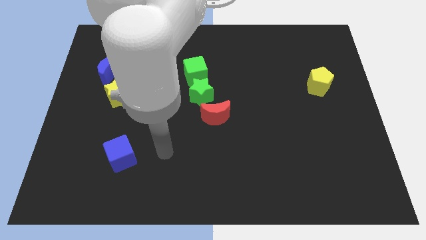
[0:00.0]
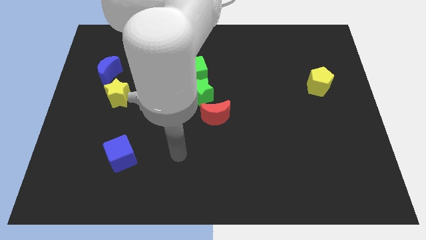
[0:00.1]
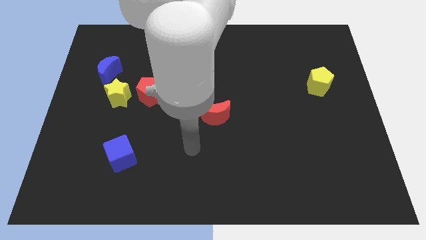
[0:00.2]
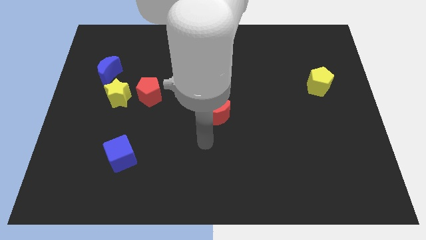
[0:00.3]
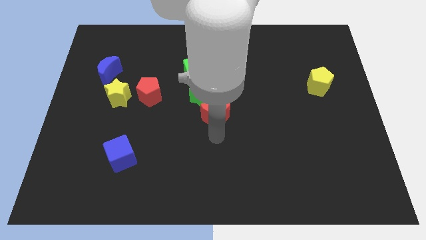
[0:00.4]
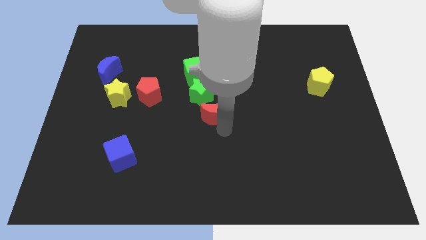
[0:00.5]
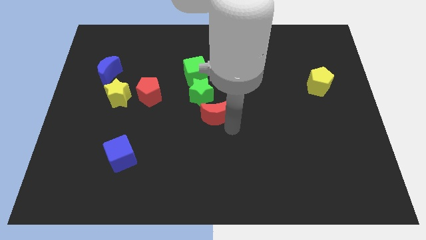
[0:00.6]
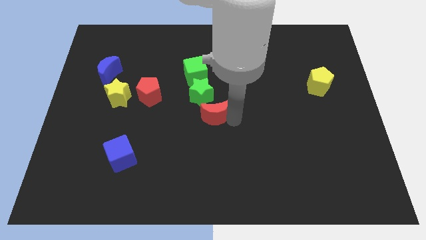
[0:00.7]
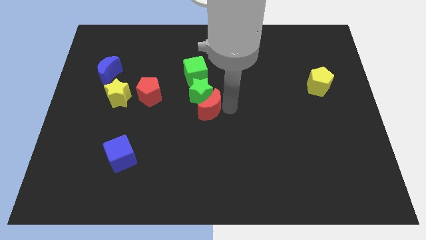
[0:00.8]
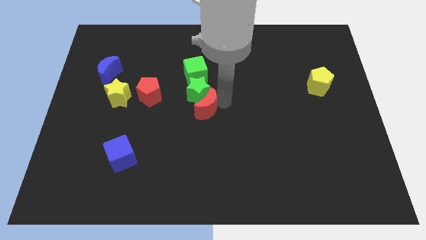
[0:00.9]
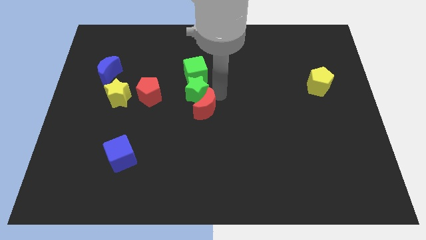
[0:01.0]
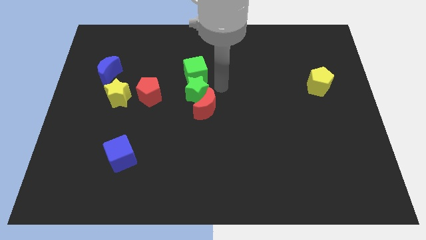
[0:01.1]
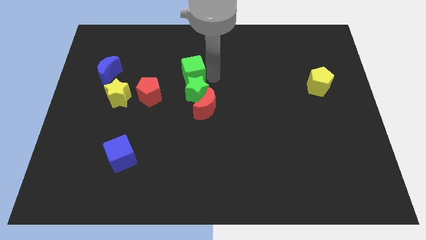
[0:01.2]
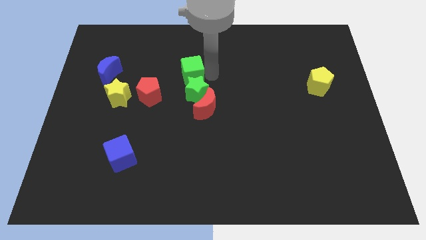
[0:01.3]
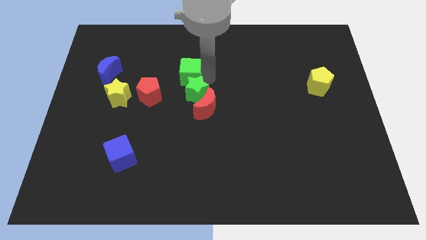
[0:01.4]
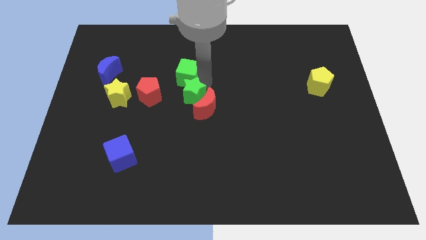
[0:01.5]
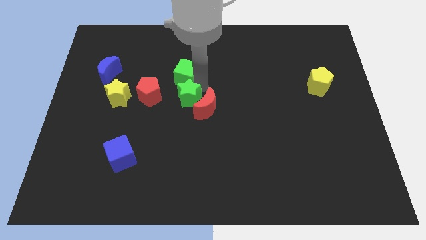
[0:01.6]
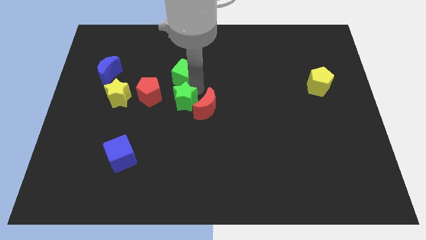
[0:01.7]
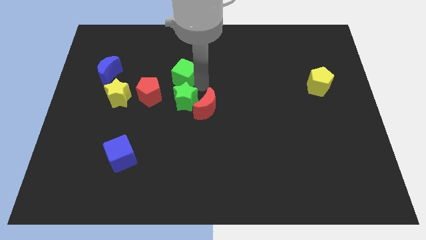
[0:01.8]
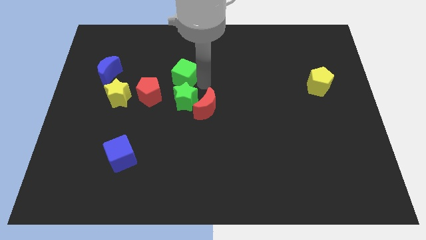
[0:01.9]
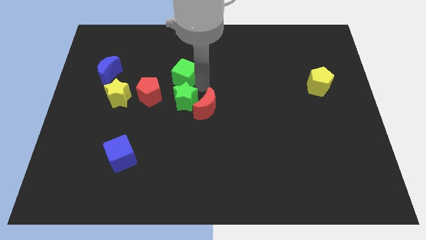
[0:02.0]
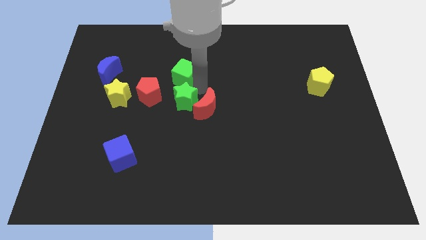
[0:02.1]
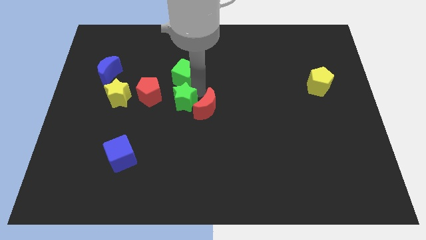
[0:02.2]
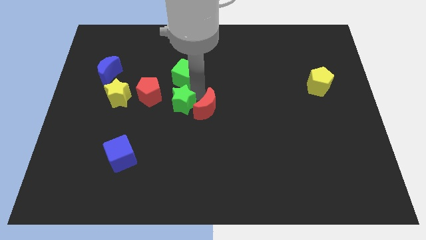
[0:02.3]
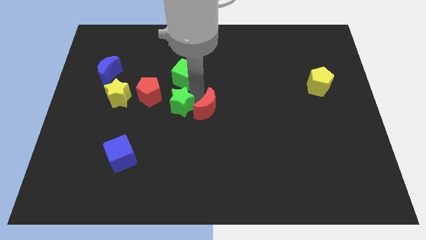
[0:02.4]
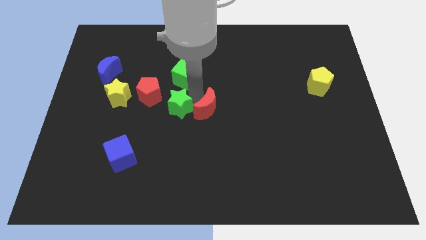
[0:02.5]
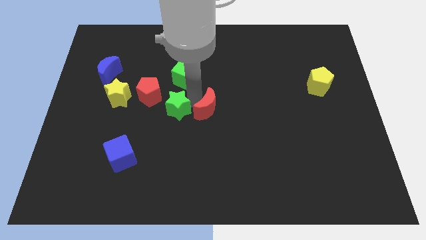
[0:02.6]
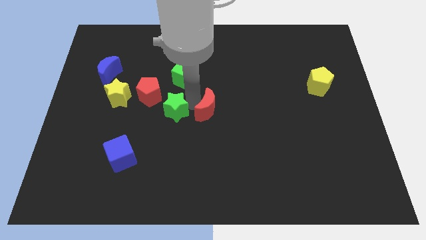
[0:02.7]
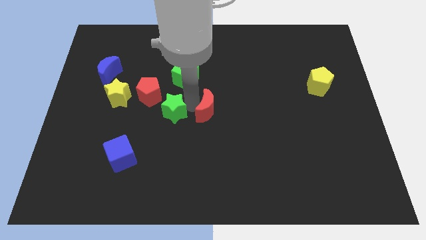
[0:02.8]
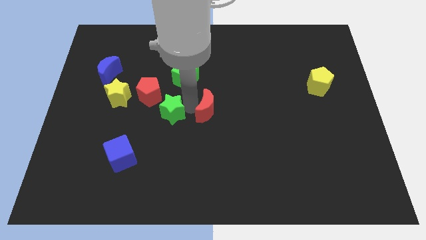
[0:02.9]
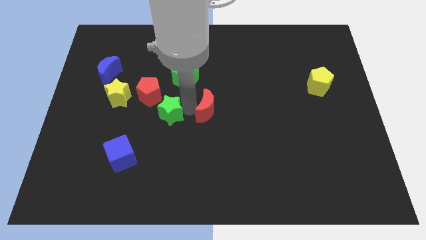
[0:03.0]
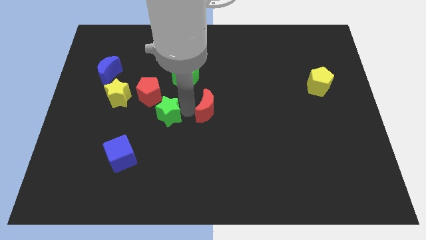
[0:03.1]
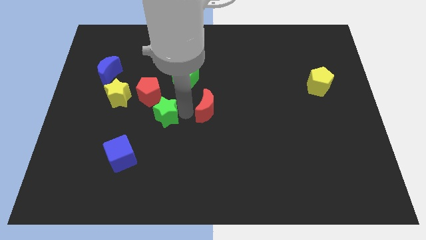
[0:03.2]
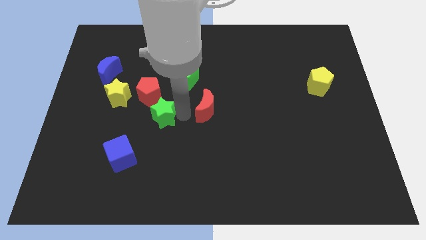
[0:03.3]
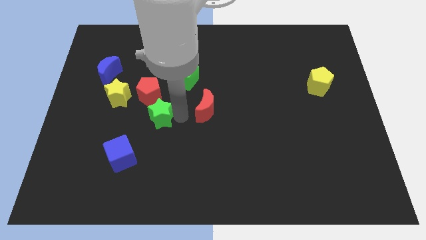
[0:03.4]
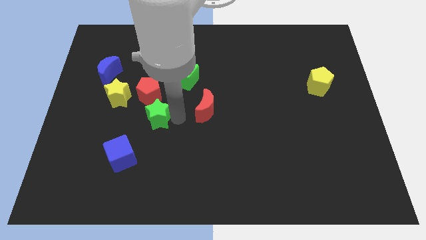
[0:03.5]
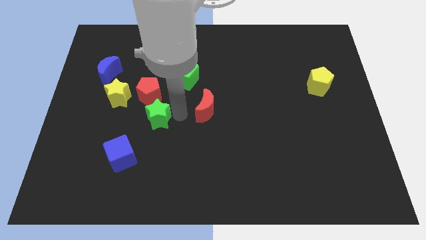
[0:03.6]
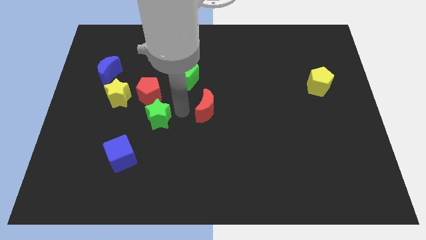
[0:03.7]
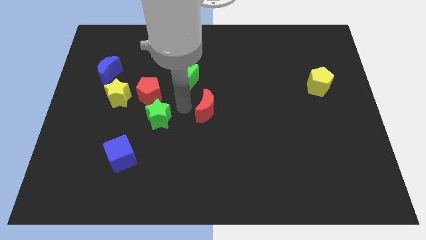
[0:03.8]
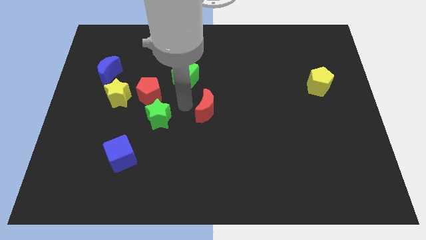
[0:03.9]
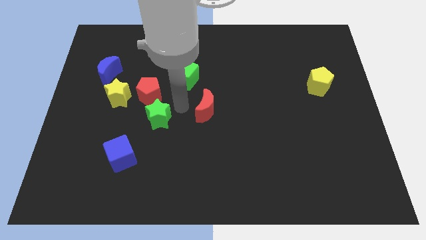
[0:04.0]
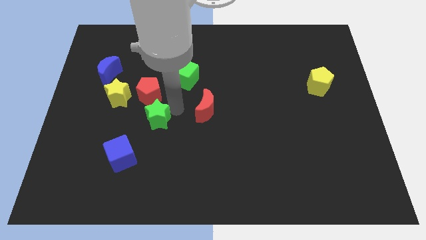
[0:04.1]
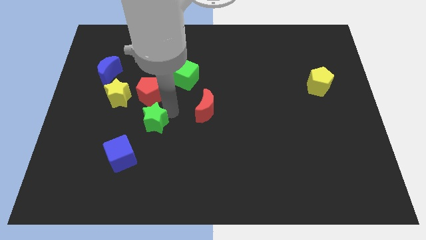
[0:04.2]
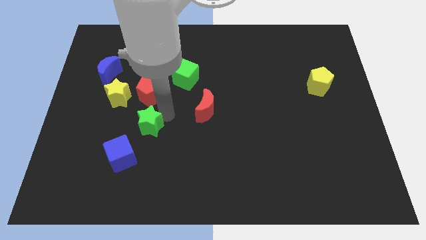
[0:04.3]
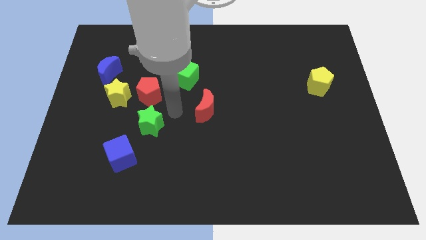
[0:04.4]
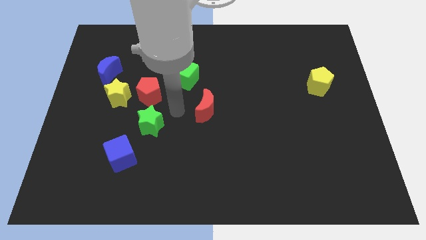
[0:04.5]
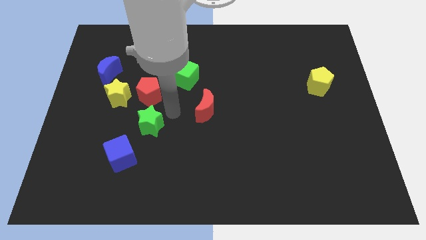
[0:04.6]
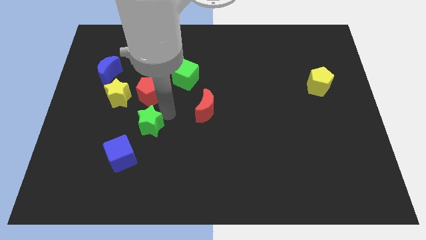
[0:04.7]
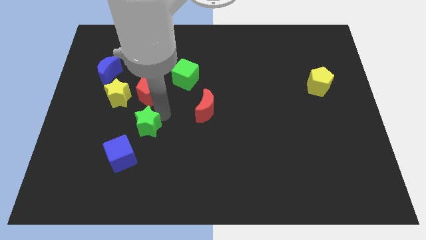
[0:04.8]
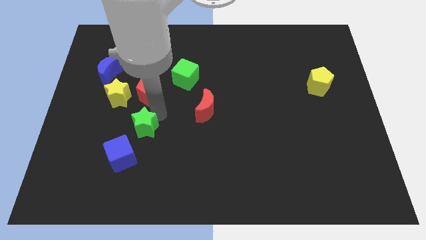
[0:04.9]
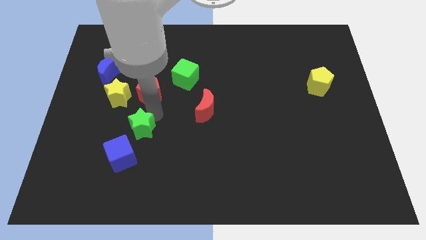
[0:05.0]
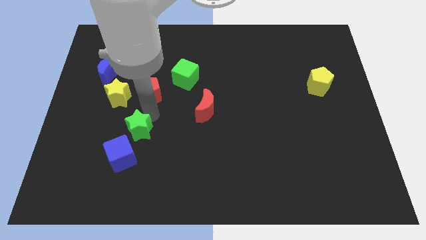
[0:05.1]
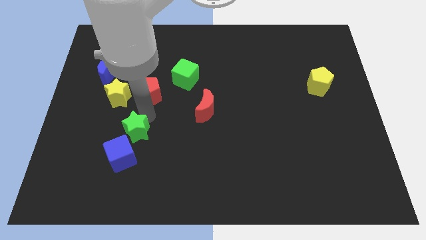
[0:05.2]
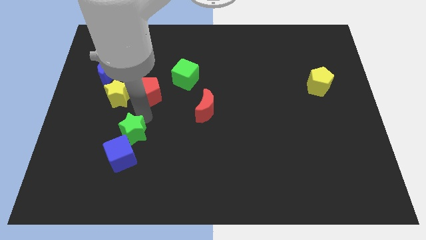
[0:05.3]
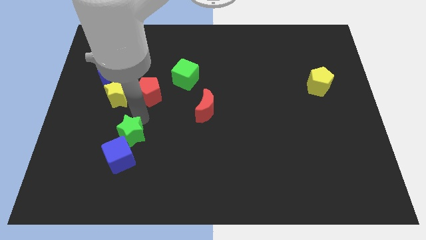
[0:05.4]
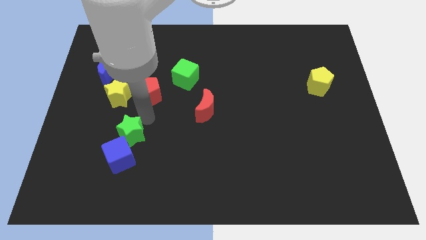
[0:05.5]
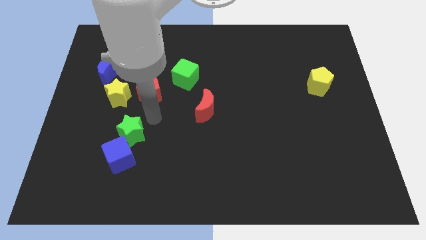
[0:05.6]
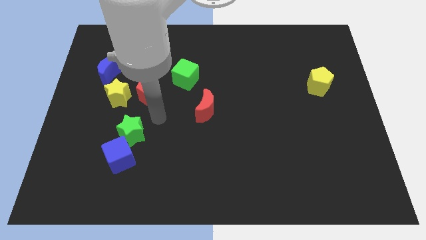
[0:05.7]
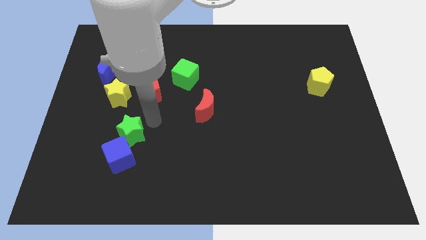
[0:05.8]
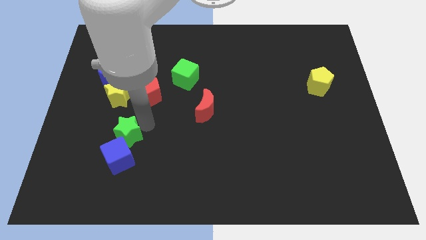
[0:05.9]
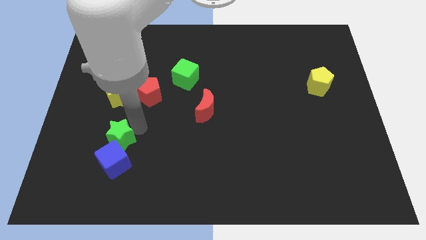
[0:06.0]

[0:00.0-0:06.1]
slide the green star diagonally downwards and to the left

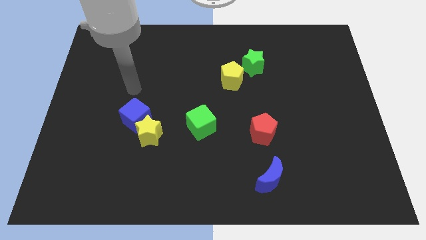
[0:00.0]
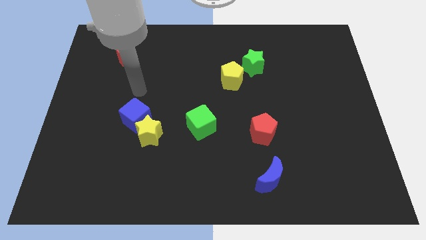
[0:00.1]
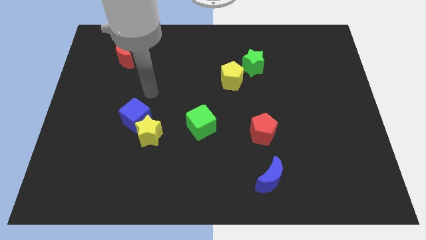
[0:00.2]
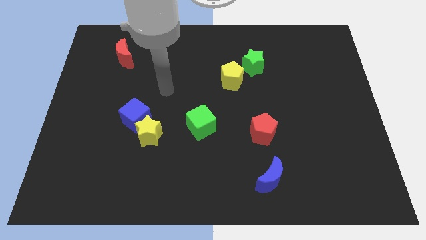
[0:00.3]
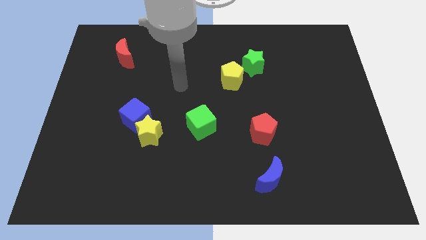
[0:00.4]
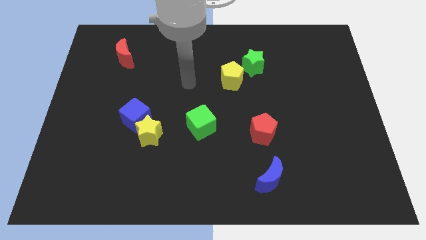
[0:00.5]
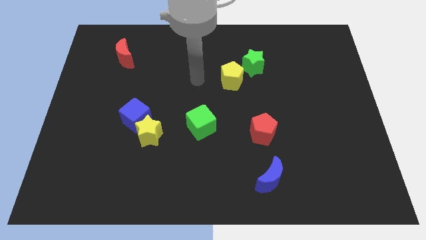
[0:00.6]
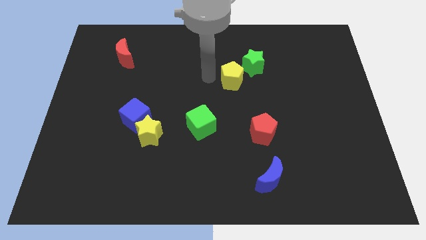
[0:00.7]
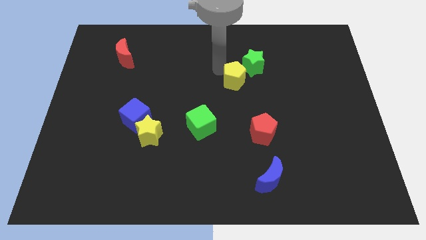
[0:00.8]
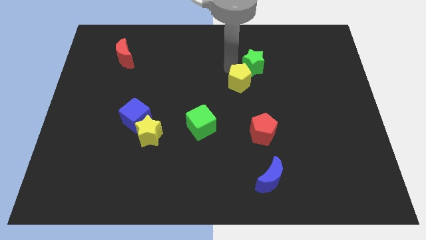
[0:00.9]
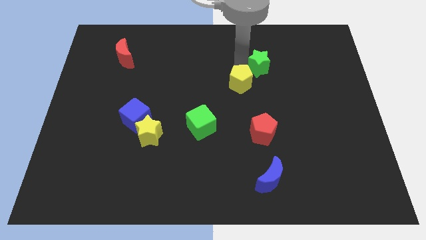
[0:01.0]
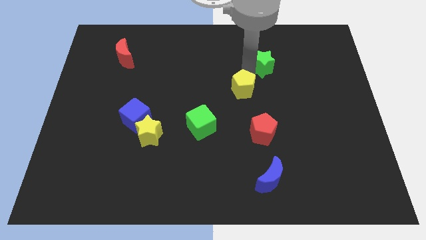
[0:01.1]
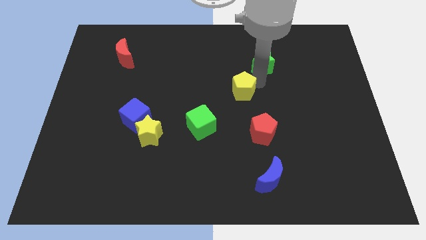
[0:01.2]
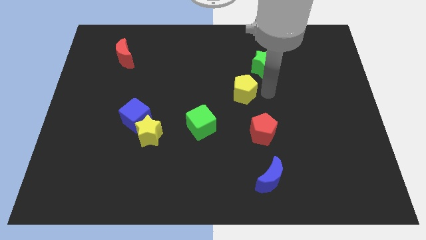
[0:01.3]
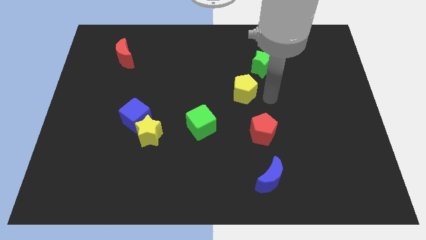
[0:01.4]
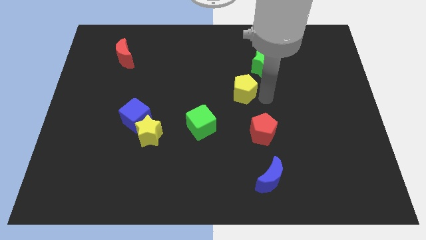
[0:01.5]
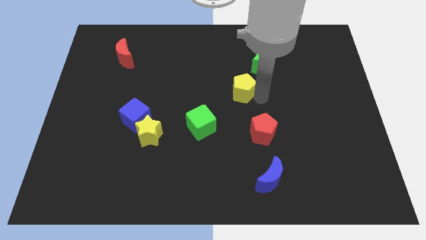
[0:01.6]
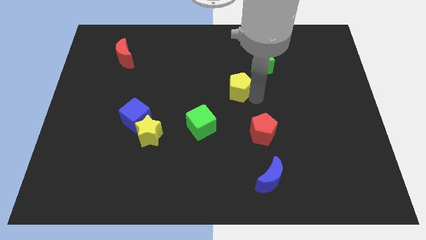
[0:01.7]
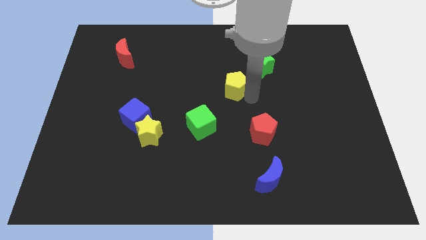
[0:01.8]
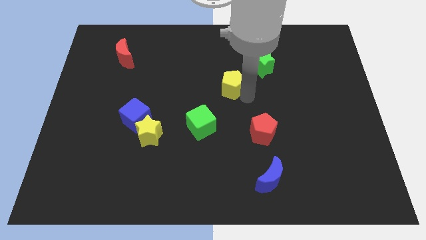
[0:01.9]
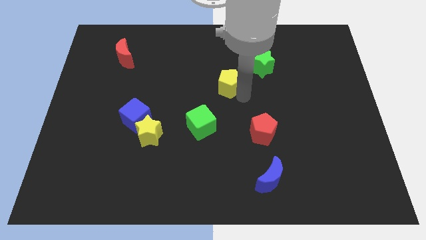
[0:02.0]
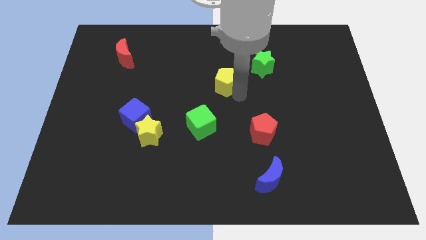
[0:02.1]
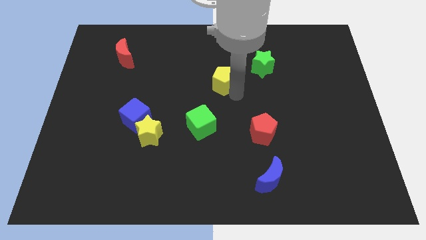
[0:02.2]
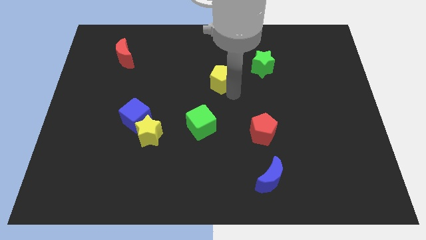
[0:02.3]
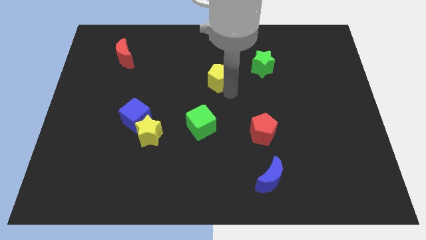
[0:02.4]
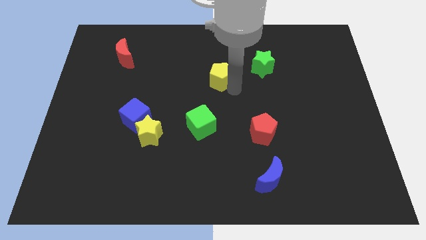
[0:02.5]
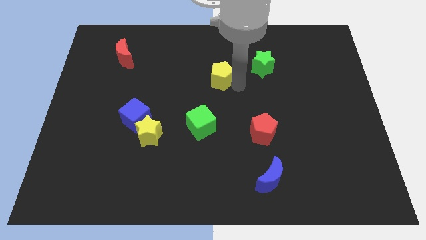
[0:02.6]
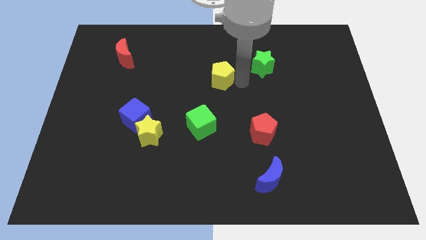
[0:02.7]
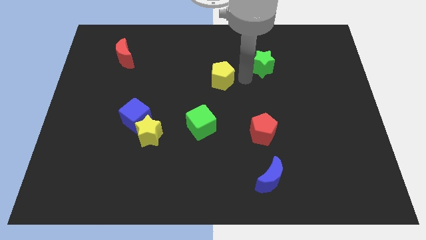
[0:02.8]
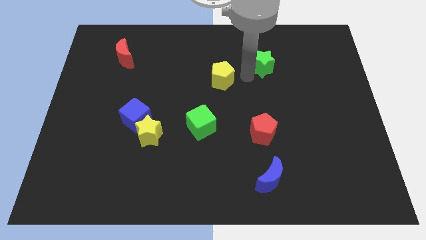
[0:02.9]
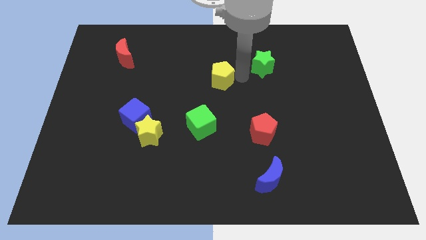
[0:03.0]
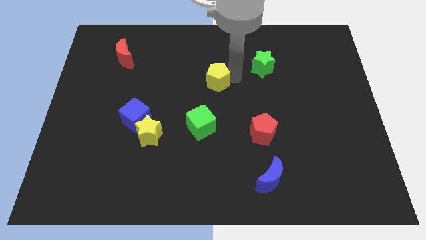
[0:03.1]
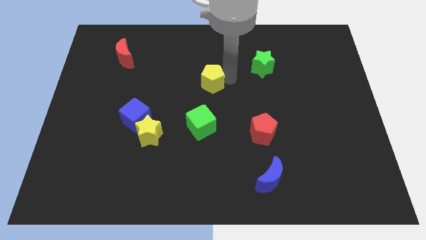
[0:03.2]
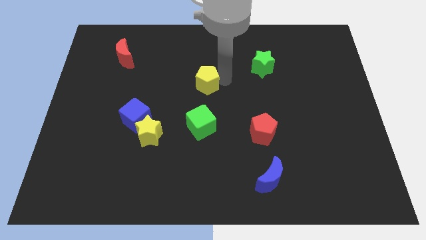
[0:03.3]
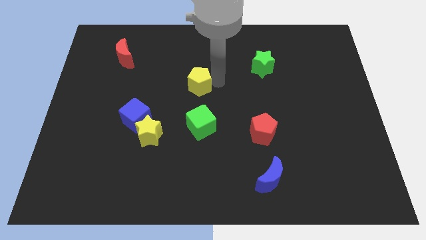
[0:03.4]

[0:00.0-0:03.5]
slightly move the yellow pentagon left
